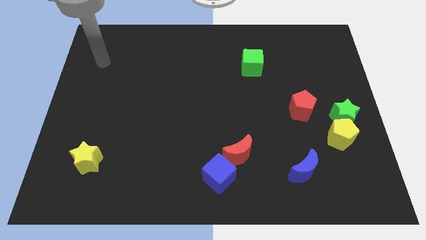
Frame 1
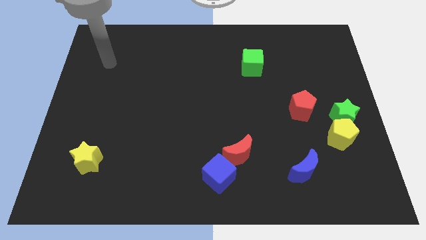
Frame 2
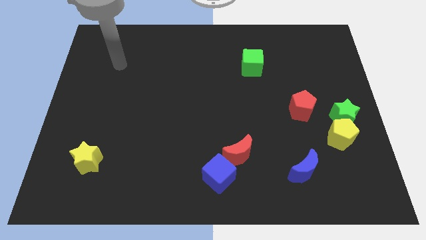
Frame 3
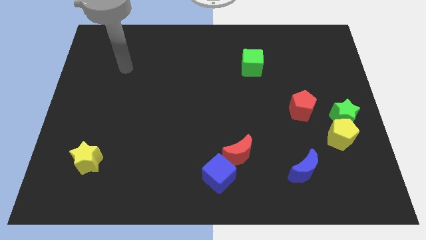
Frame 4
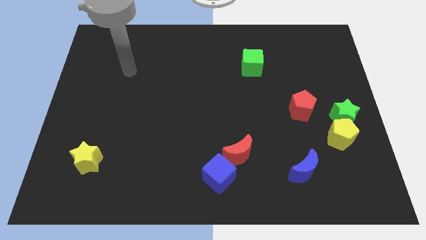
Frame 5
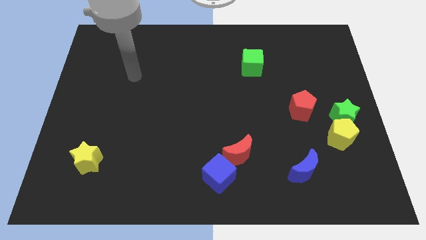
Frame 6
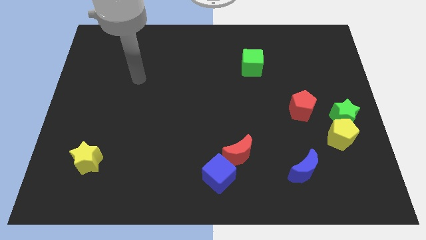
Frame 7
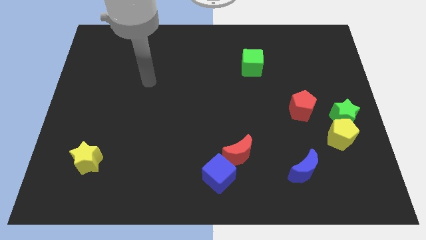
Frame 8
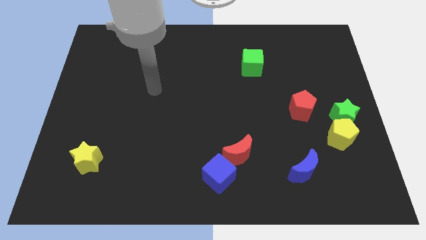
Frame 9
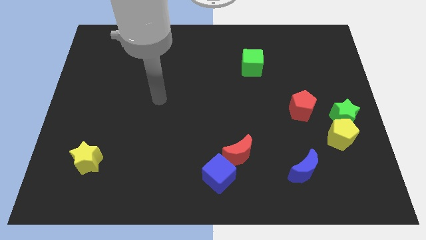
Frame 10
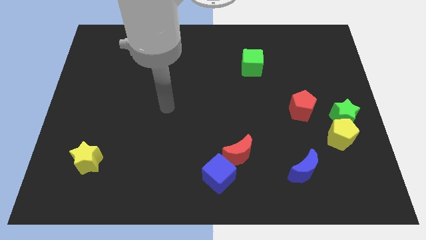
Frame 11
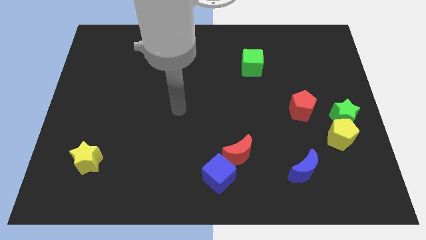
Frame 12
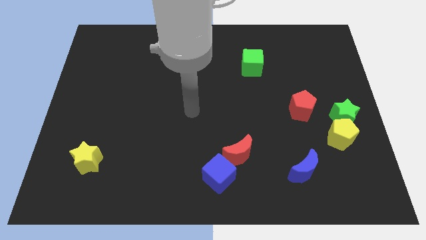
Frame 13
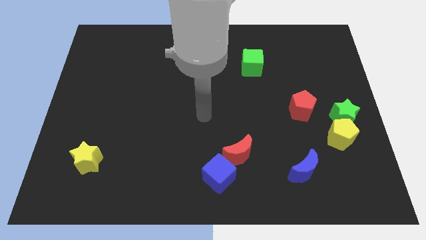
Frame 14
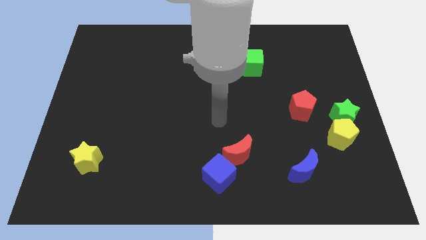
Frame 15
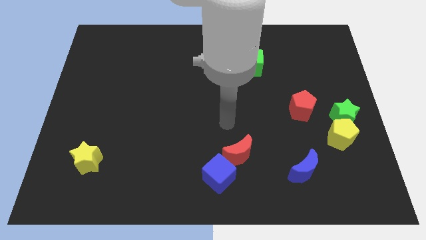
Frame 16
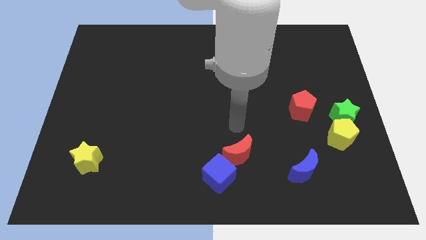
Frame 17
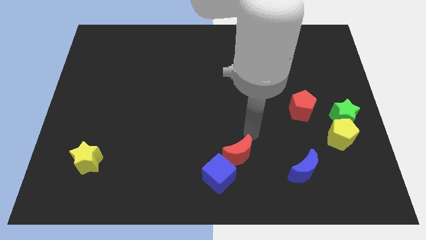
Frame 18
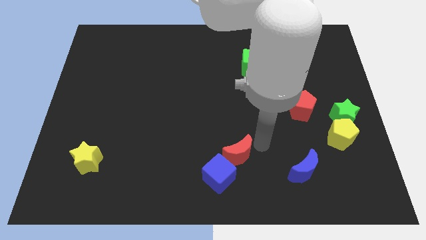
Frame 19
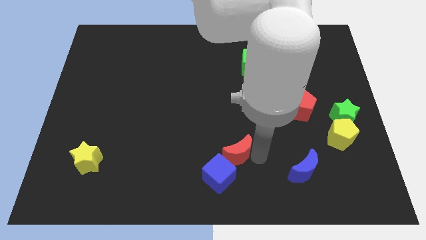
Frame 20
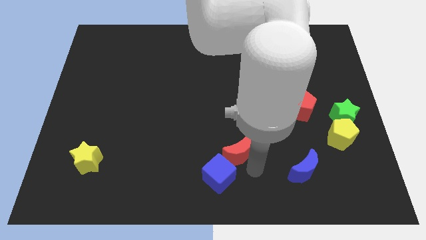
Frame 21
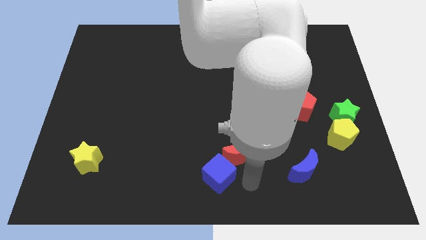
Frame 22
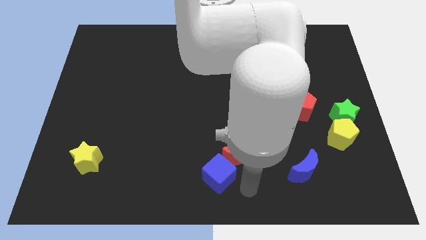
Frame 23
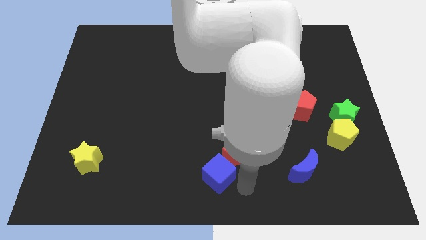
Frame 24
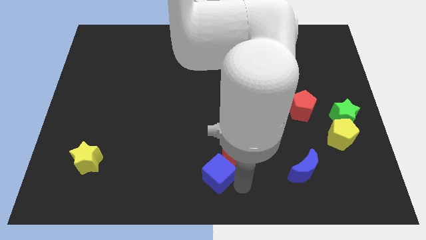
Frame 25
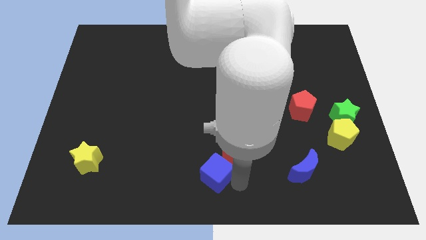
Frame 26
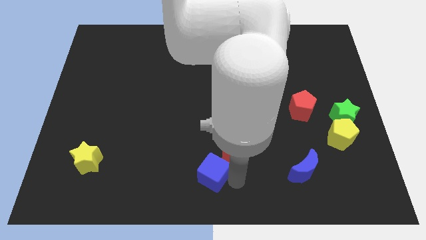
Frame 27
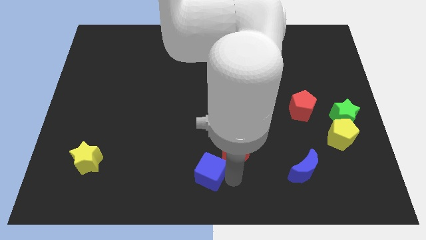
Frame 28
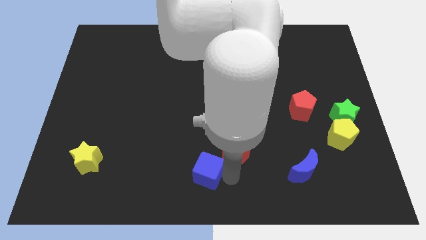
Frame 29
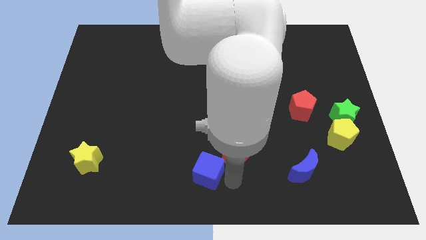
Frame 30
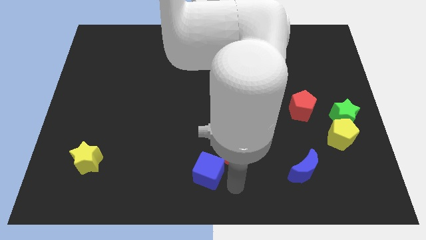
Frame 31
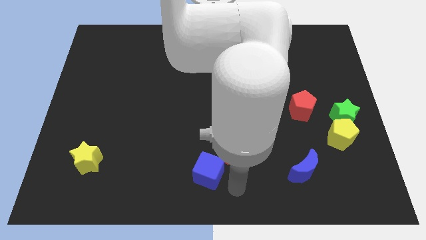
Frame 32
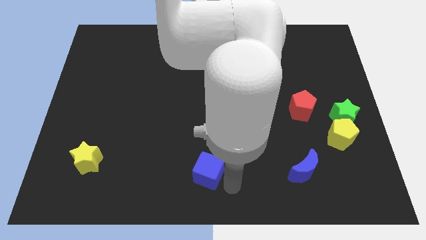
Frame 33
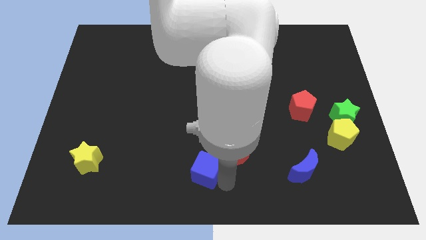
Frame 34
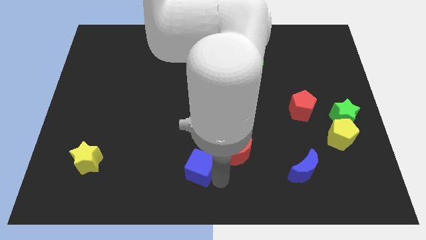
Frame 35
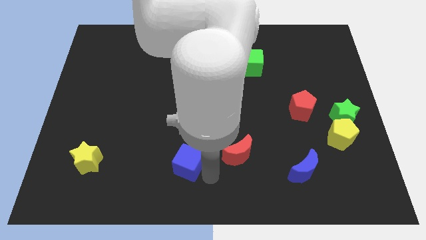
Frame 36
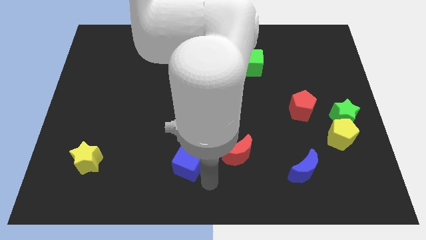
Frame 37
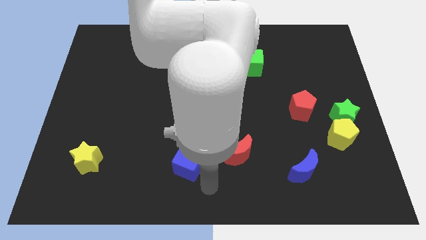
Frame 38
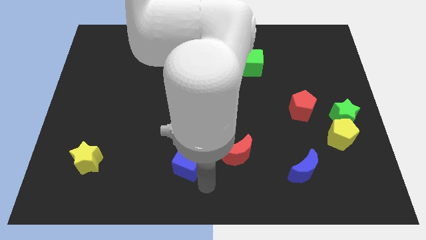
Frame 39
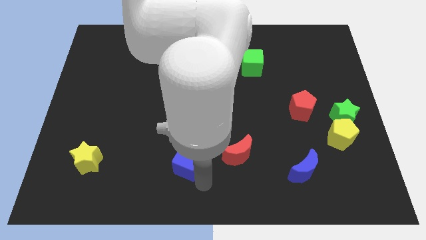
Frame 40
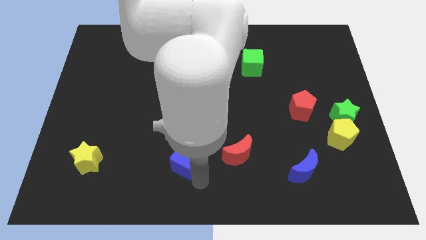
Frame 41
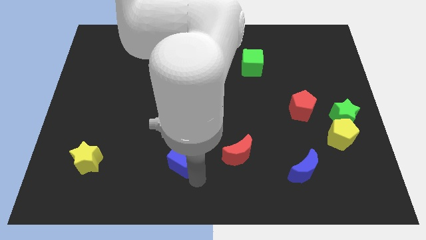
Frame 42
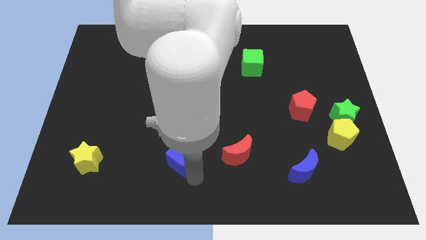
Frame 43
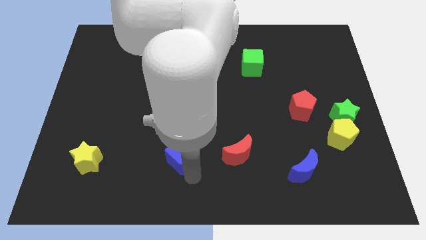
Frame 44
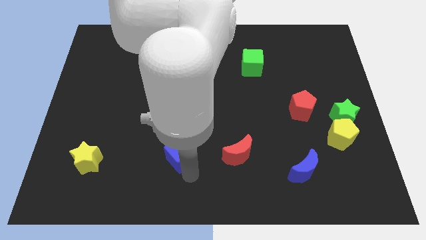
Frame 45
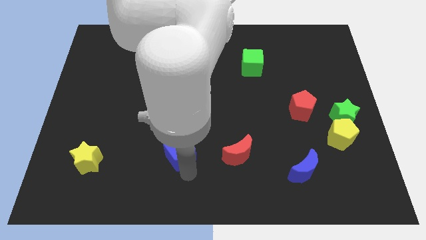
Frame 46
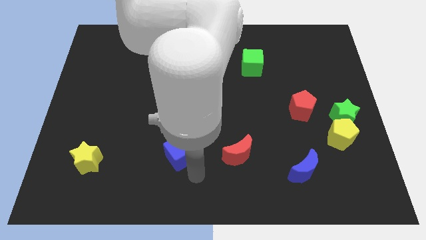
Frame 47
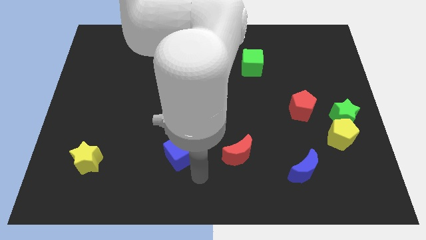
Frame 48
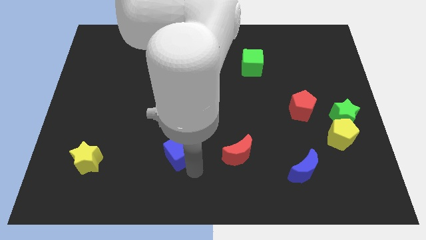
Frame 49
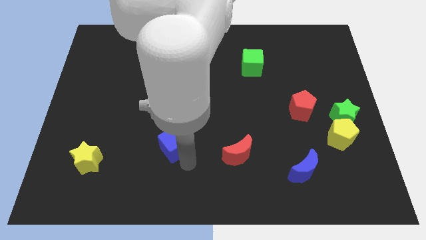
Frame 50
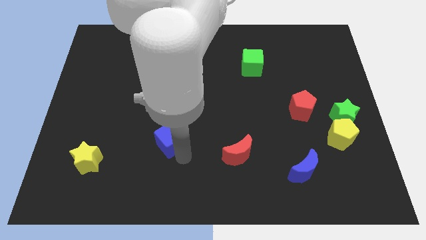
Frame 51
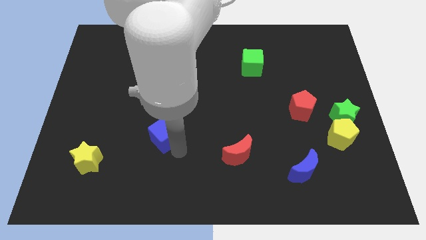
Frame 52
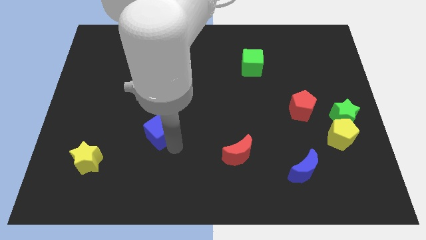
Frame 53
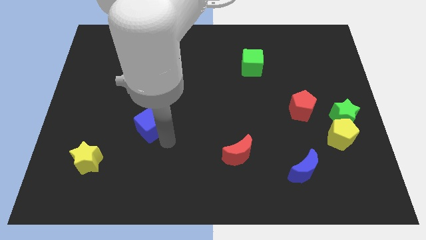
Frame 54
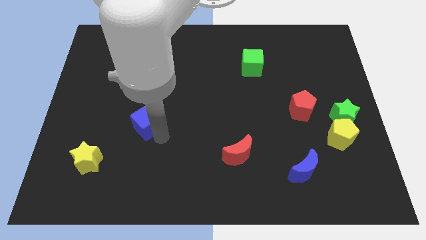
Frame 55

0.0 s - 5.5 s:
move the blue cube up and to the left diagonally

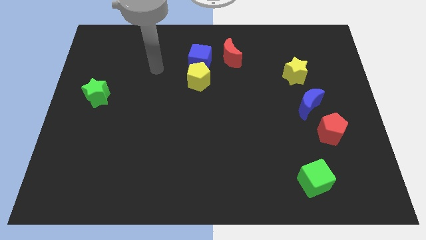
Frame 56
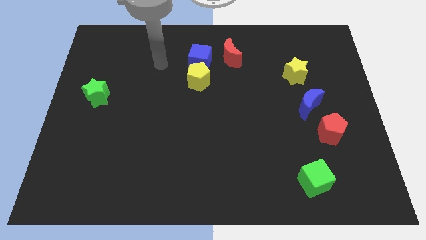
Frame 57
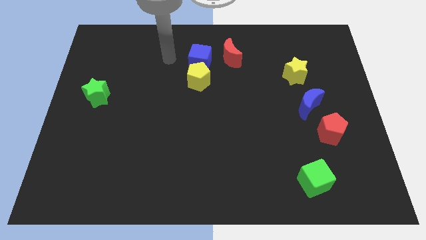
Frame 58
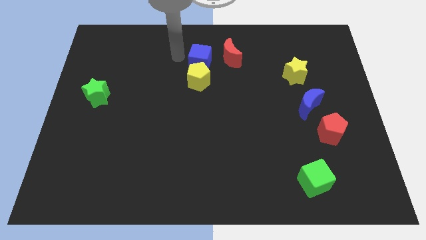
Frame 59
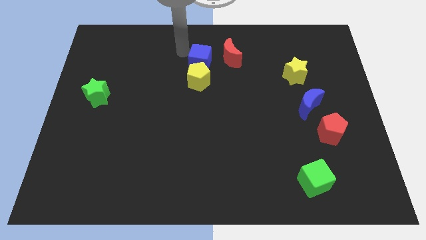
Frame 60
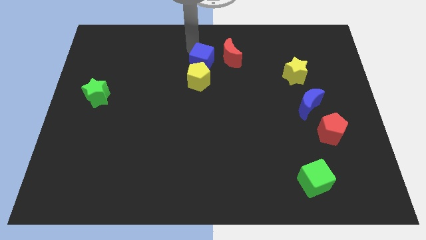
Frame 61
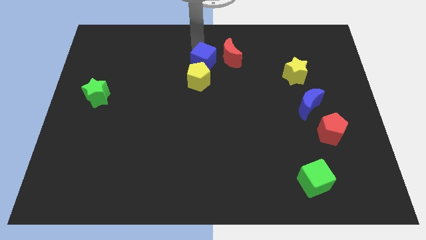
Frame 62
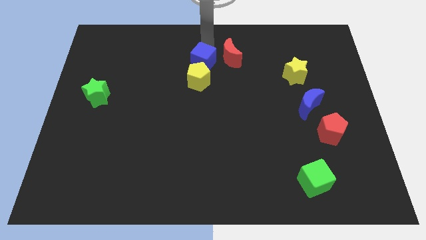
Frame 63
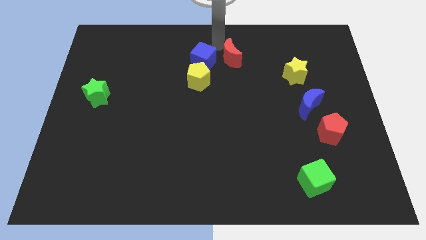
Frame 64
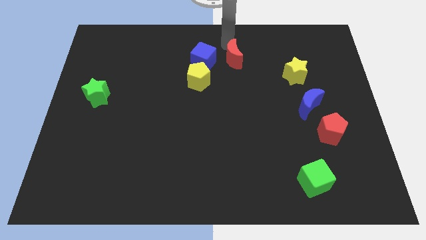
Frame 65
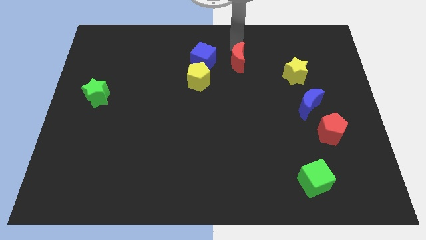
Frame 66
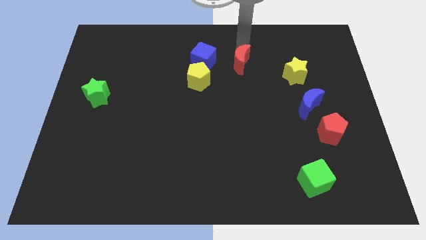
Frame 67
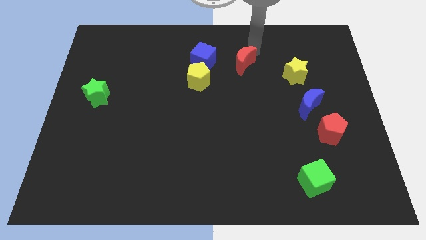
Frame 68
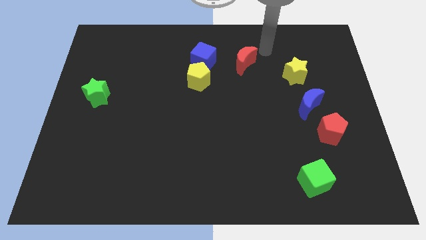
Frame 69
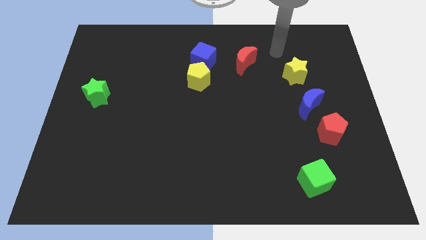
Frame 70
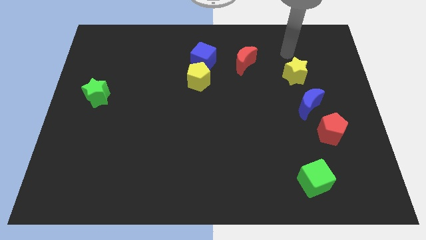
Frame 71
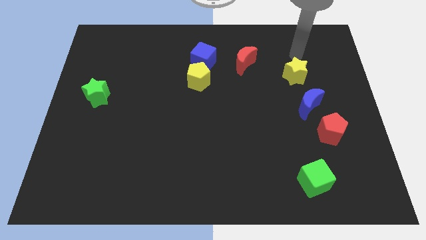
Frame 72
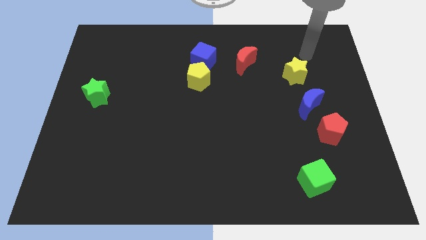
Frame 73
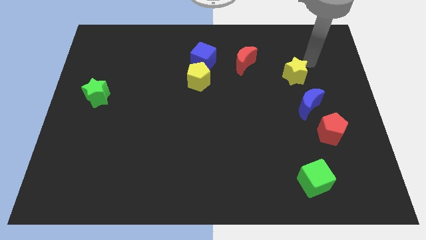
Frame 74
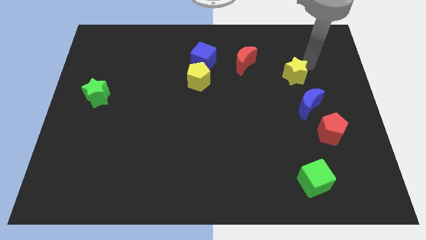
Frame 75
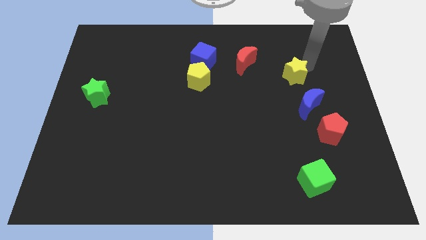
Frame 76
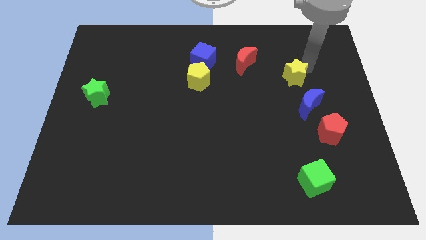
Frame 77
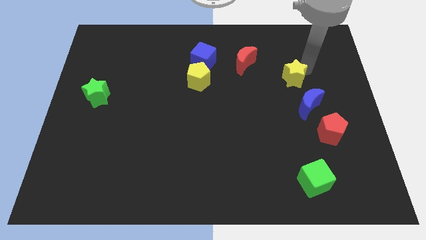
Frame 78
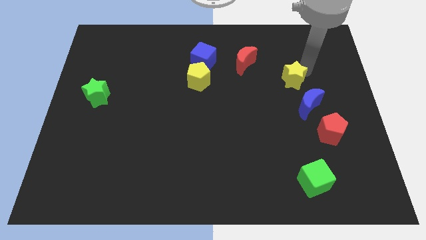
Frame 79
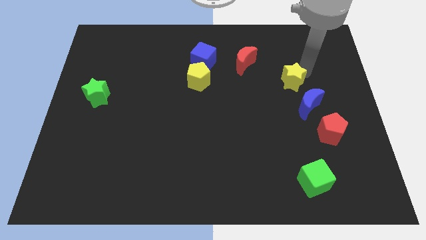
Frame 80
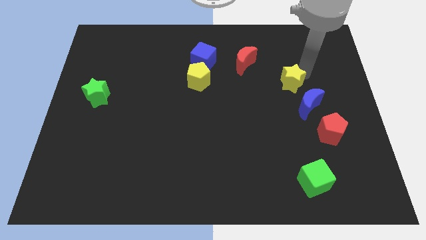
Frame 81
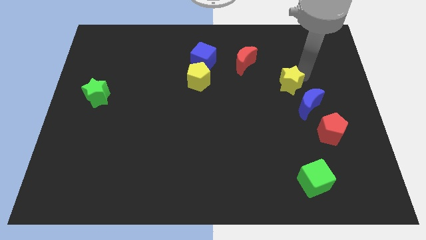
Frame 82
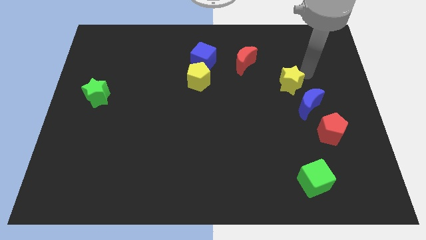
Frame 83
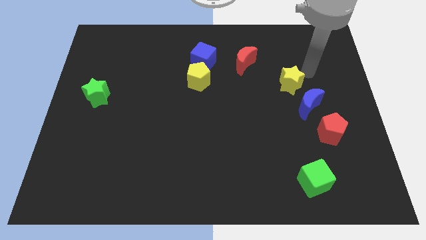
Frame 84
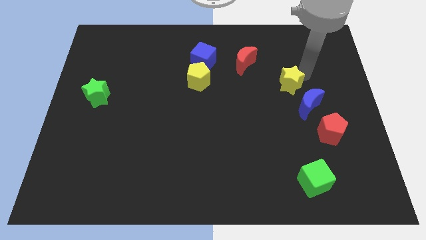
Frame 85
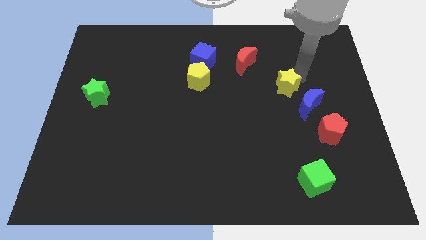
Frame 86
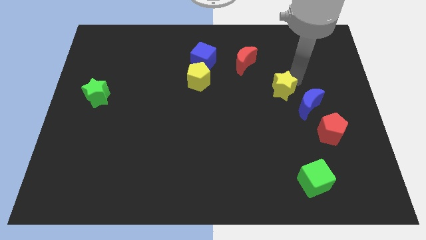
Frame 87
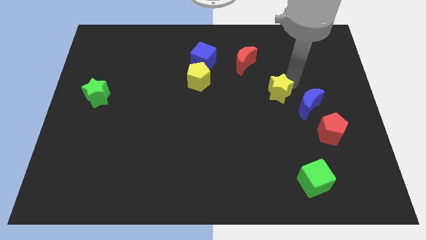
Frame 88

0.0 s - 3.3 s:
slide the yellow star diagonally downwards and left a little bit
